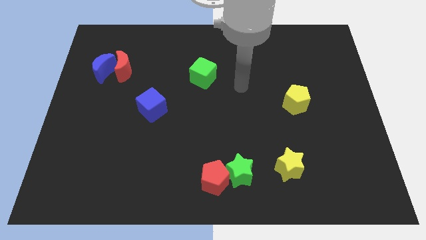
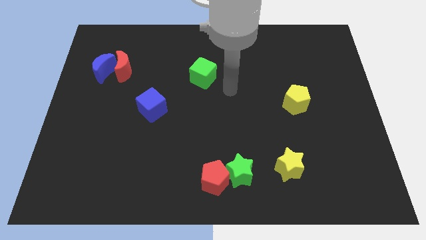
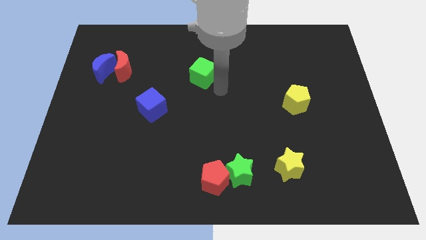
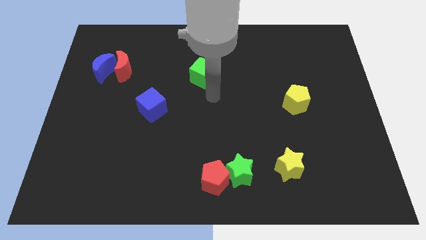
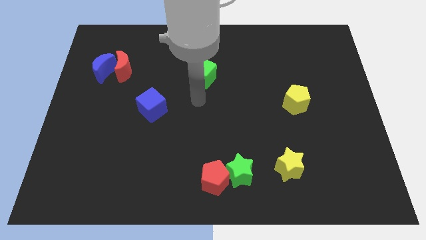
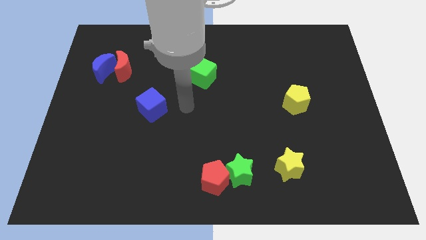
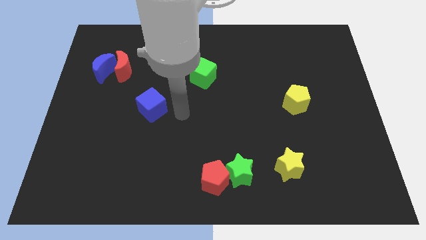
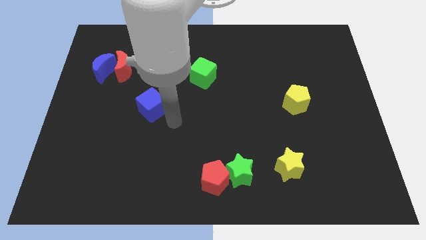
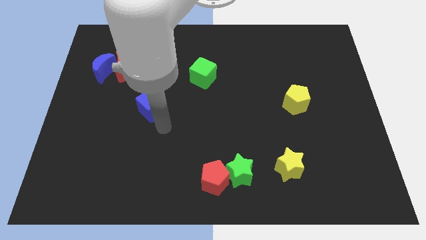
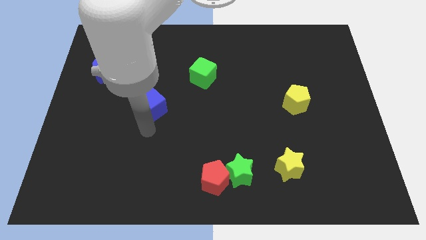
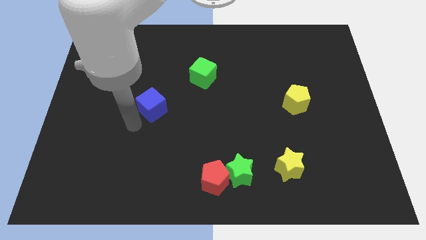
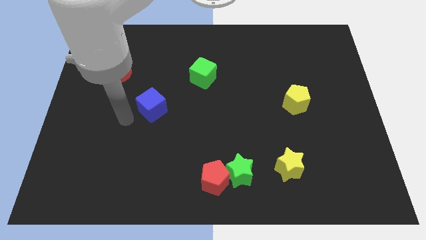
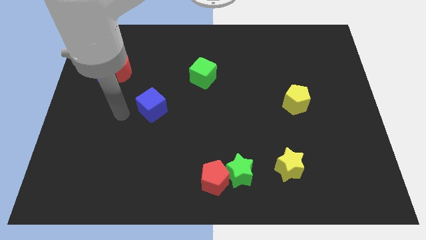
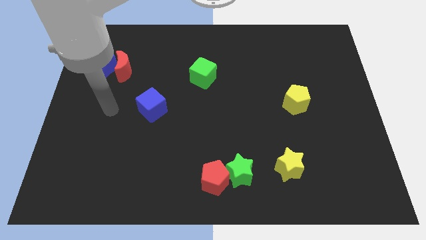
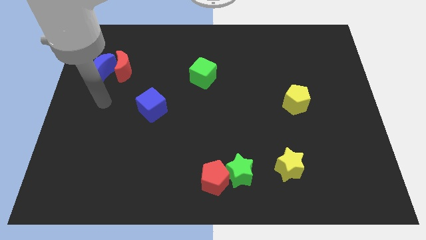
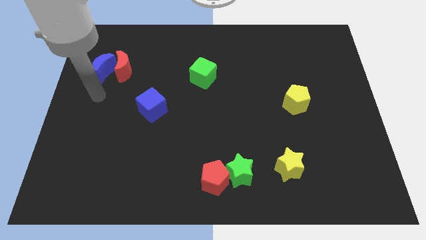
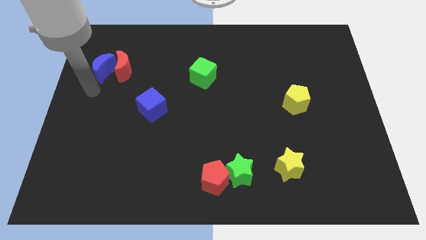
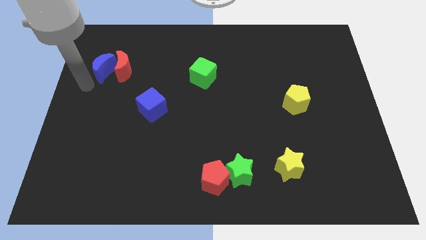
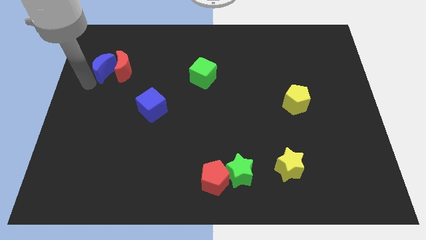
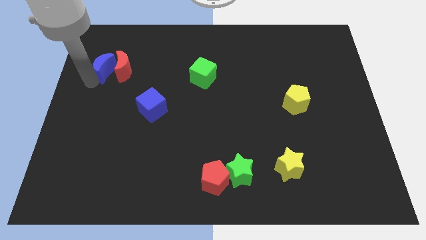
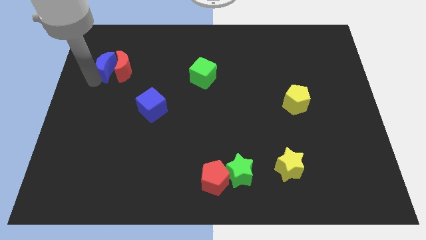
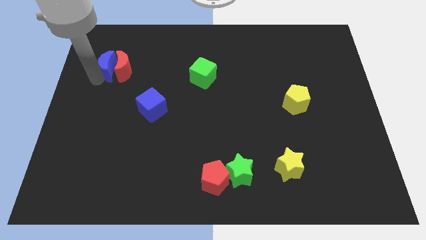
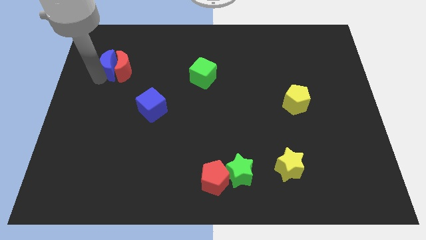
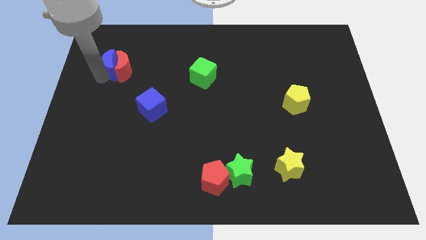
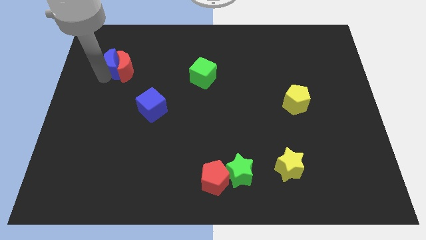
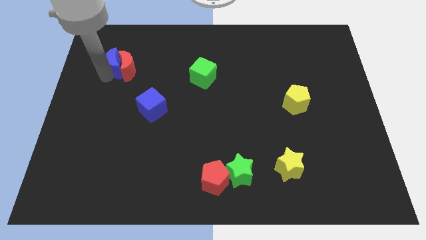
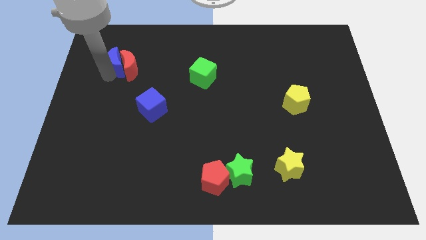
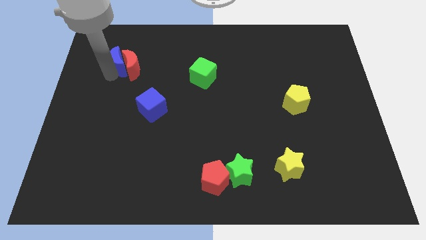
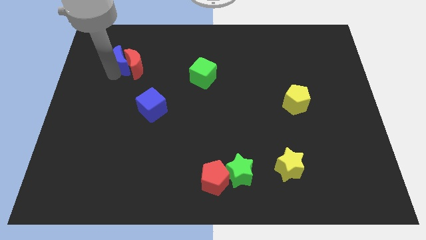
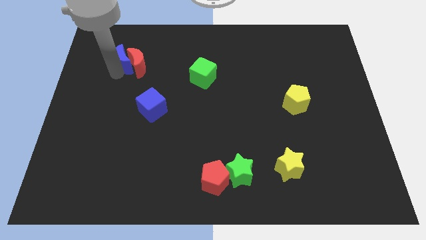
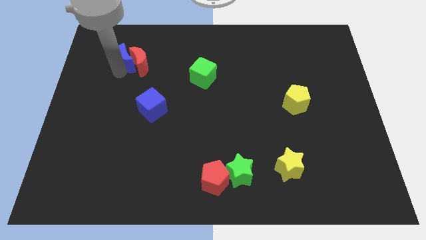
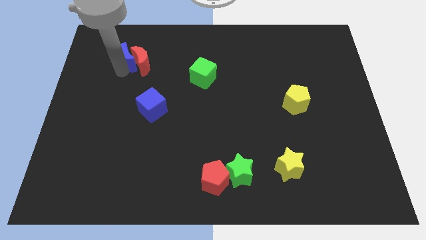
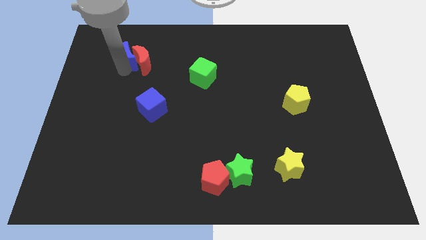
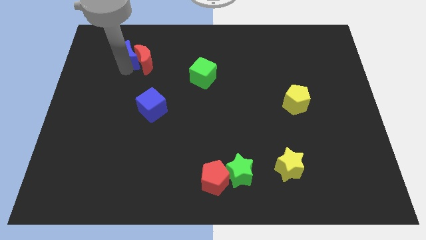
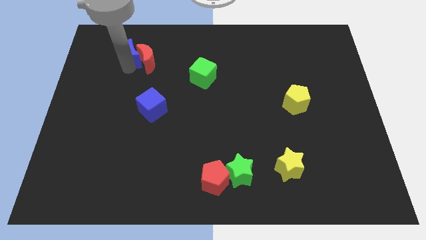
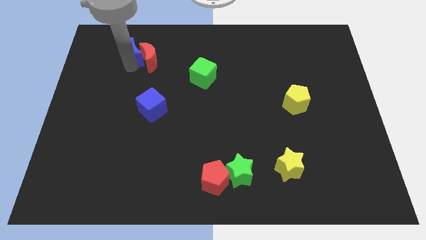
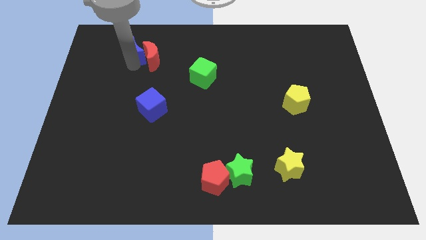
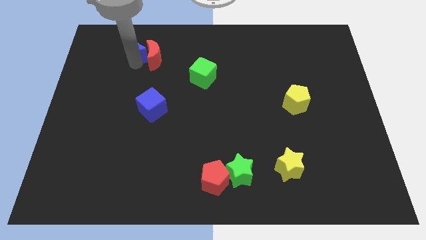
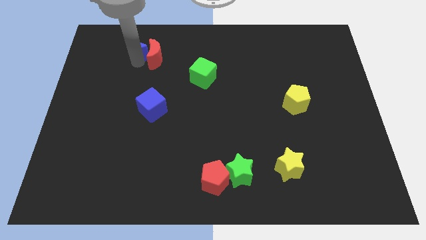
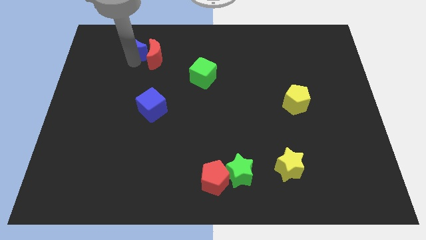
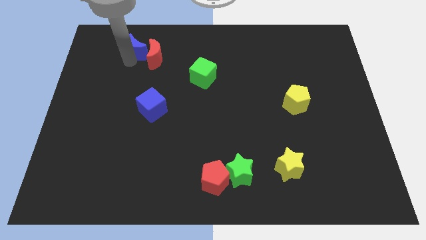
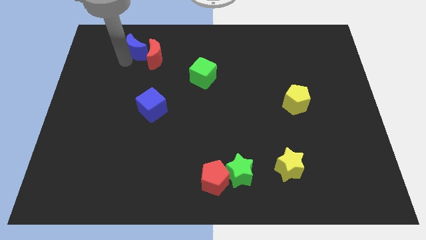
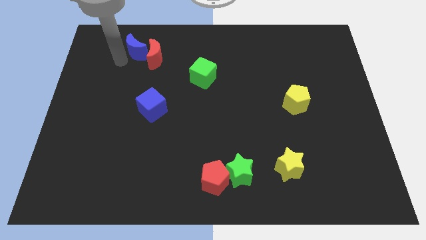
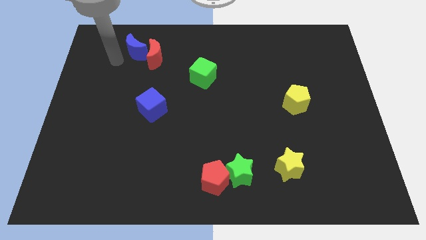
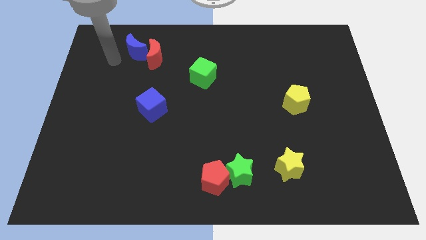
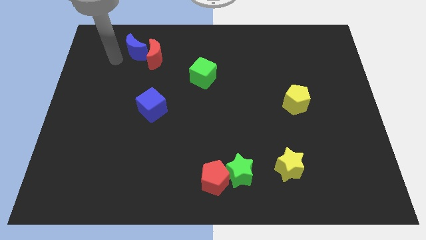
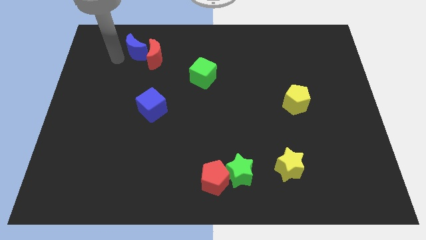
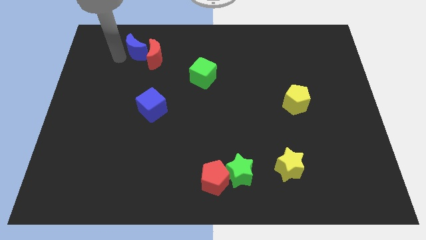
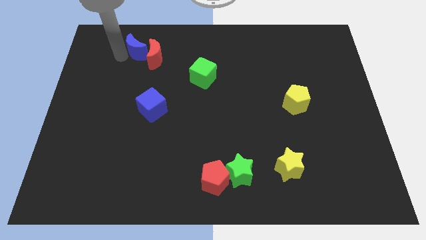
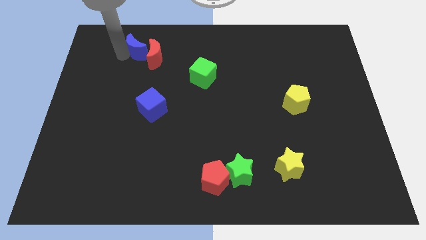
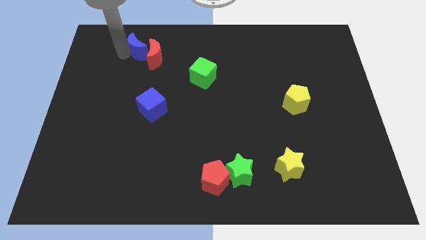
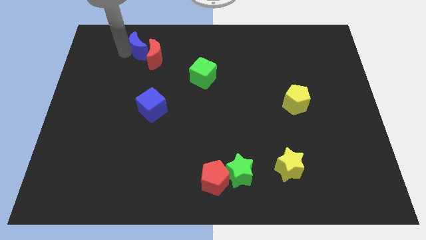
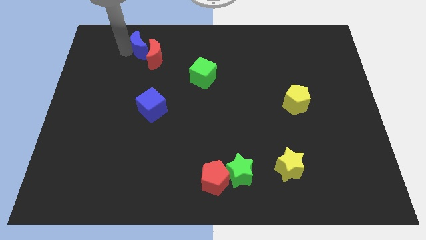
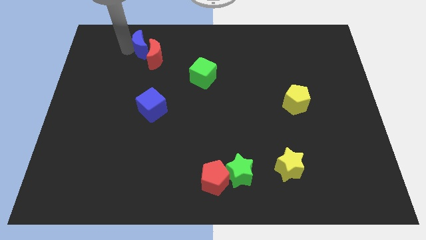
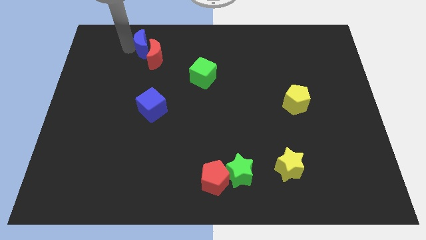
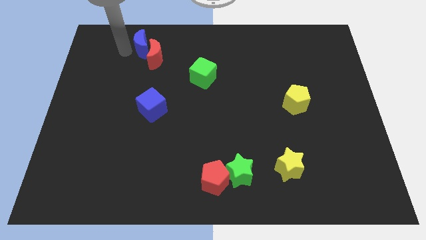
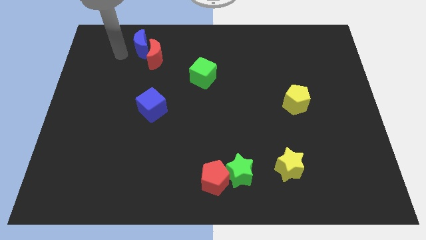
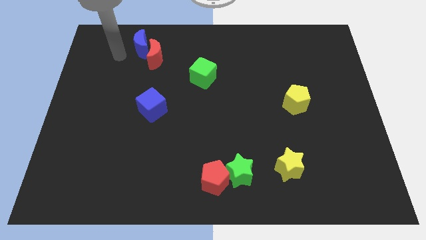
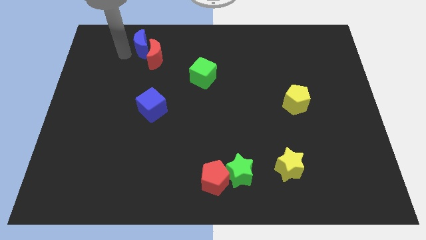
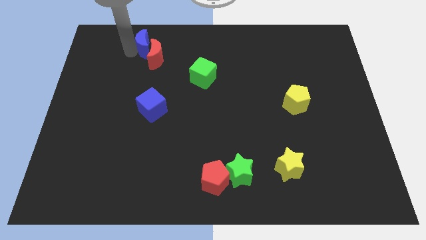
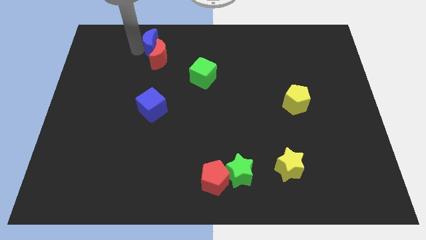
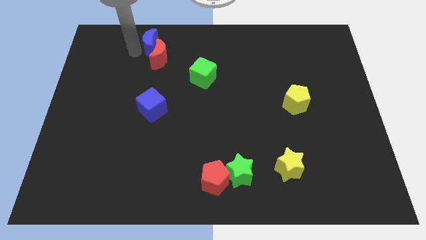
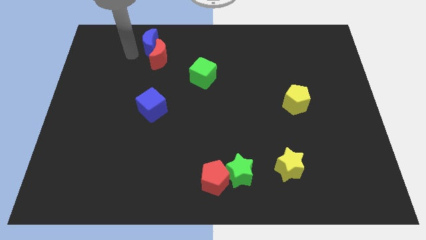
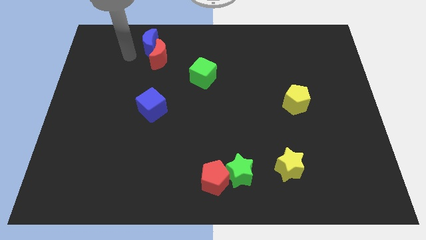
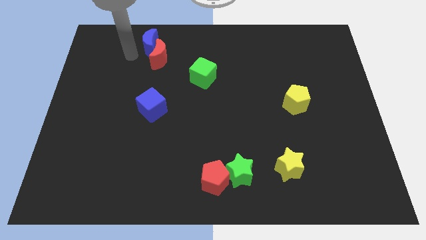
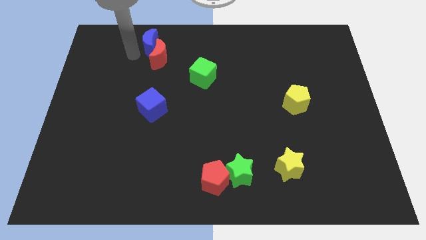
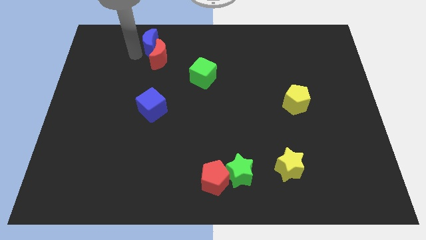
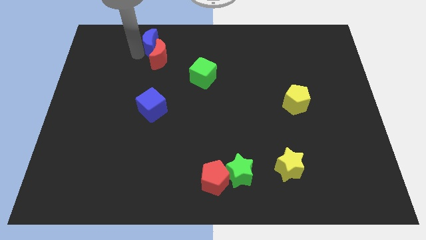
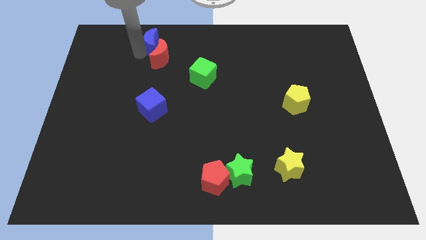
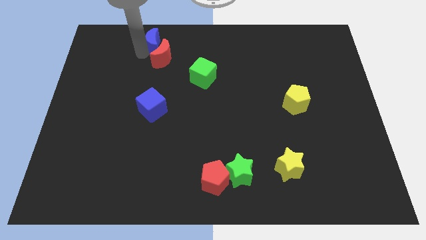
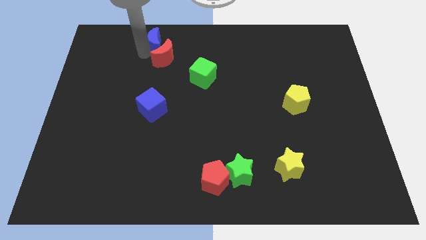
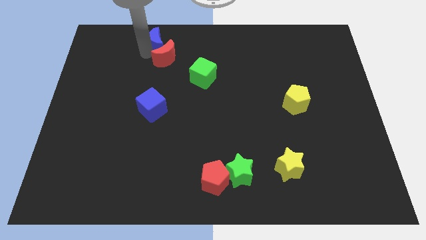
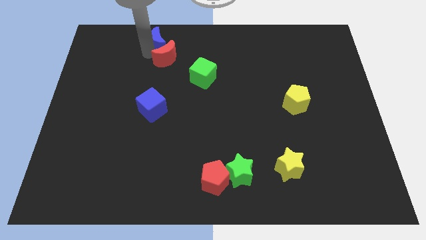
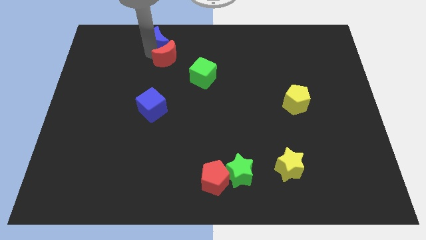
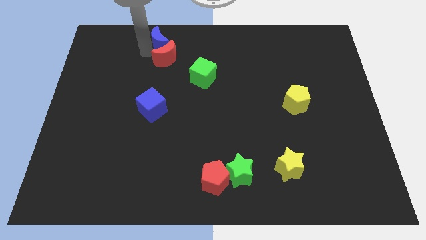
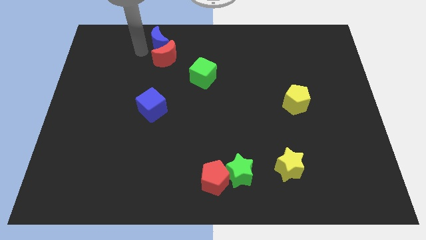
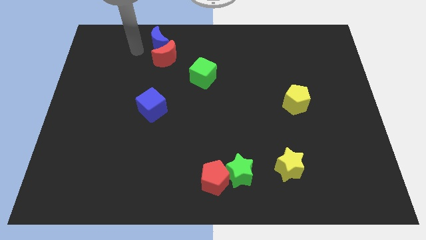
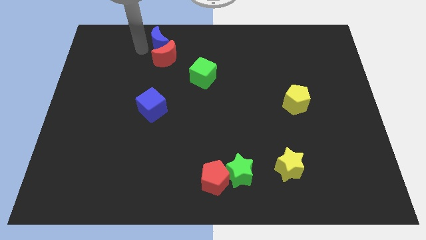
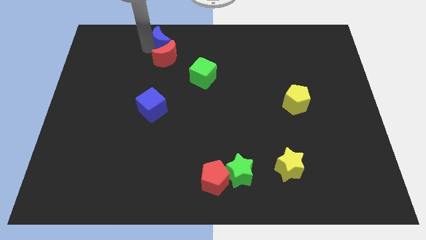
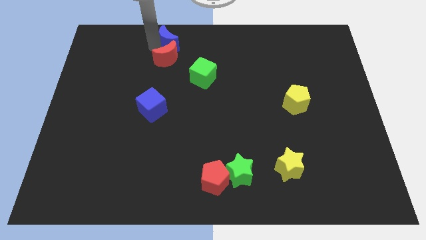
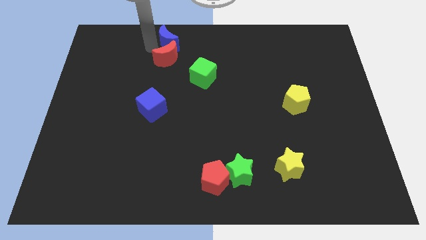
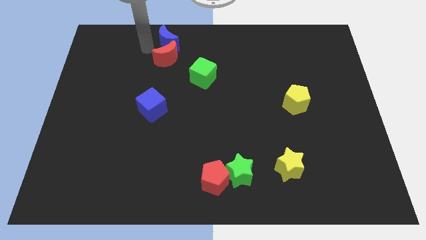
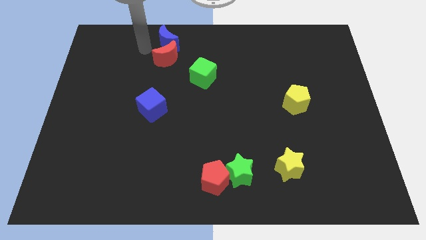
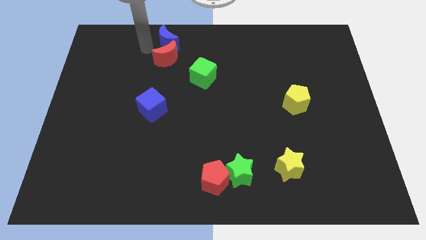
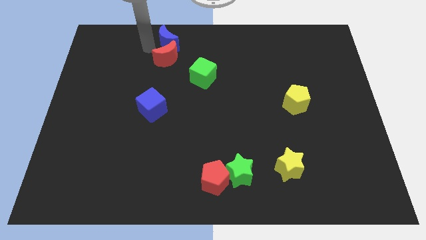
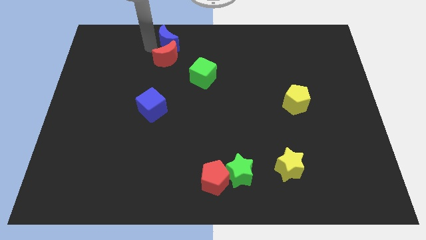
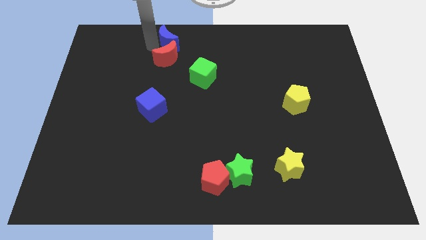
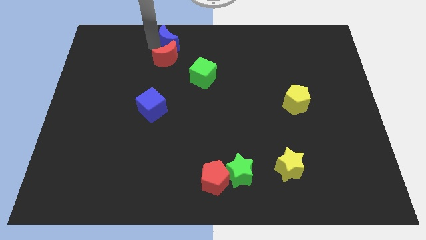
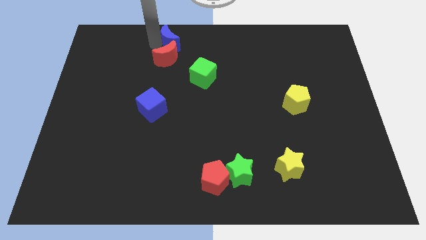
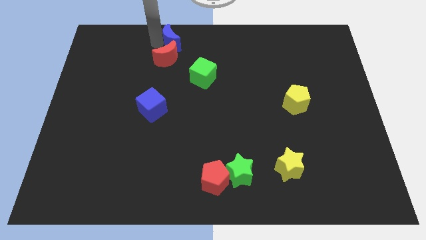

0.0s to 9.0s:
slide the blue moon to the top side
